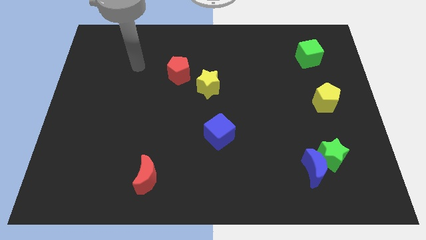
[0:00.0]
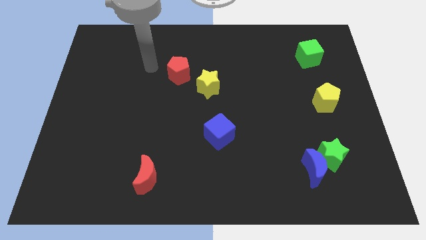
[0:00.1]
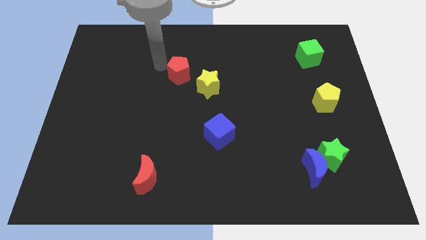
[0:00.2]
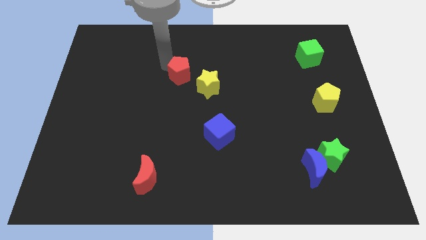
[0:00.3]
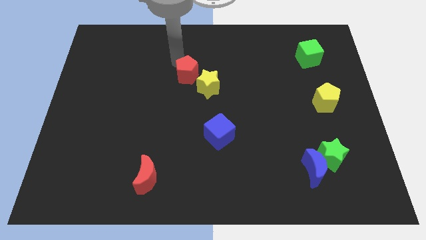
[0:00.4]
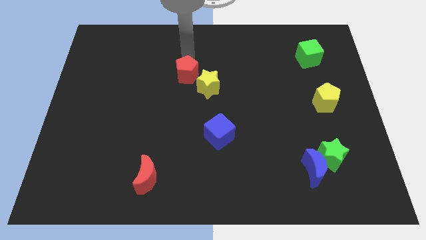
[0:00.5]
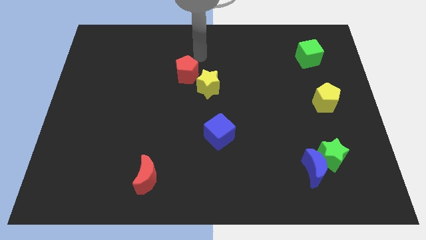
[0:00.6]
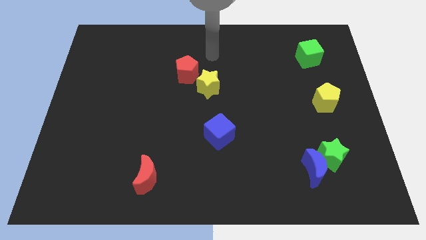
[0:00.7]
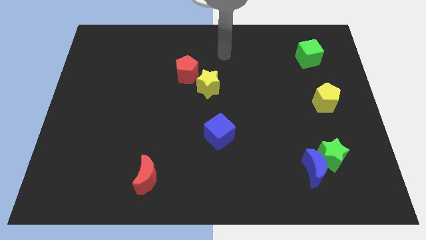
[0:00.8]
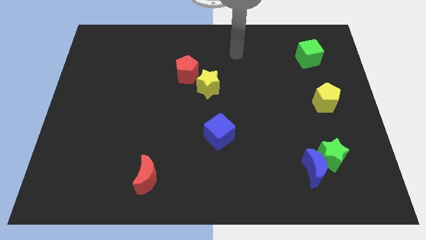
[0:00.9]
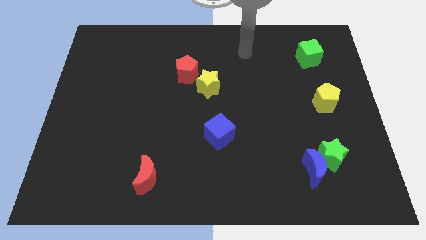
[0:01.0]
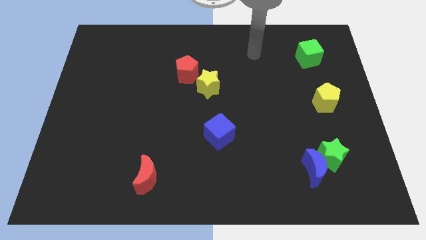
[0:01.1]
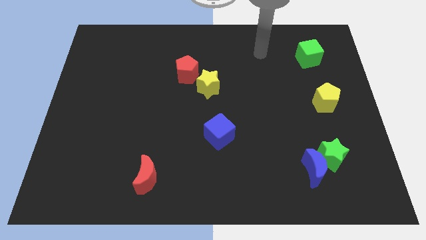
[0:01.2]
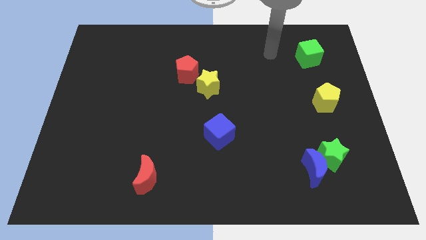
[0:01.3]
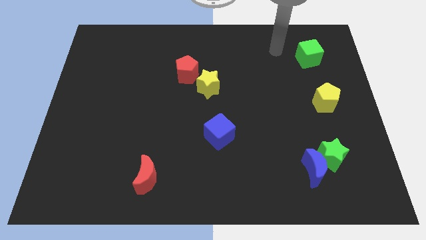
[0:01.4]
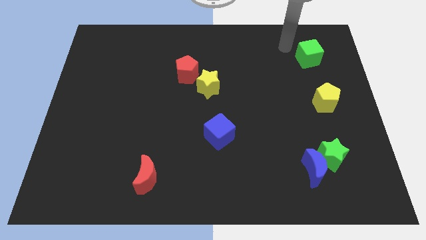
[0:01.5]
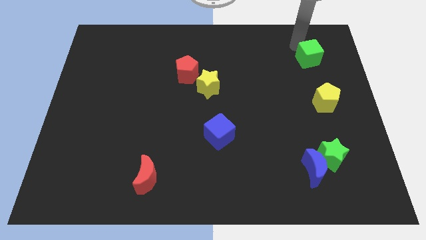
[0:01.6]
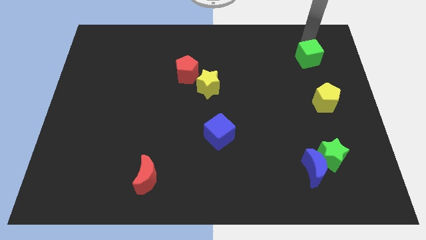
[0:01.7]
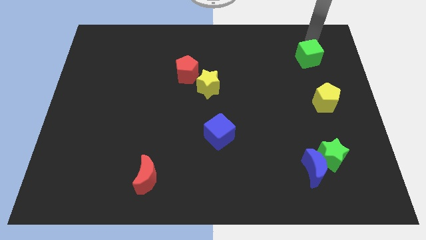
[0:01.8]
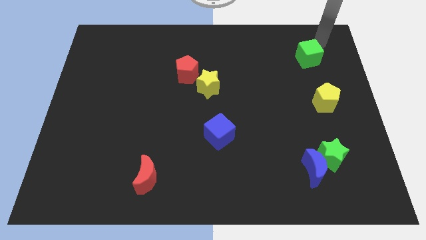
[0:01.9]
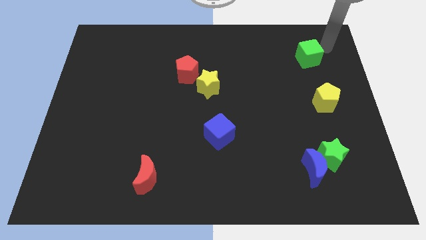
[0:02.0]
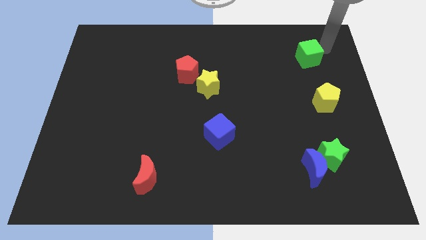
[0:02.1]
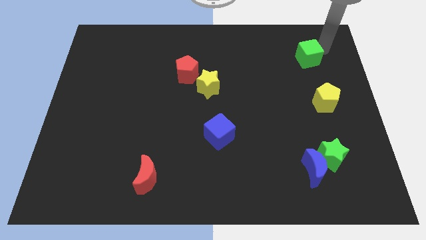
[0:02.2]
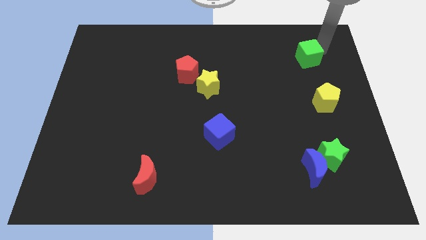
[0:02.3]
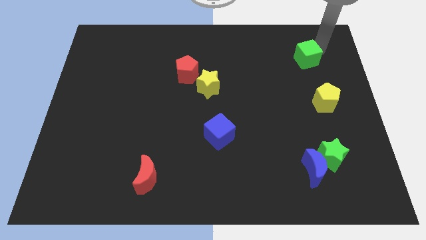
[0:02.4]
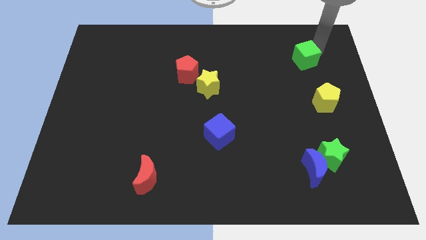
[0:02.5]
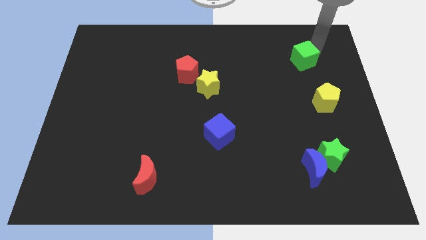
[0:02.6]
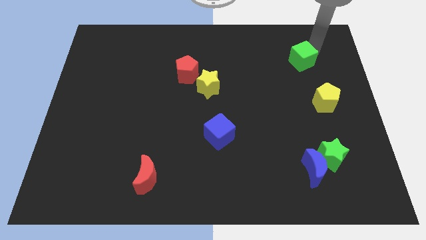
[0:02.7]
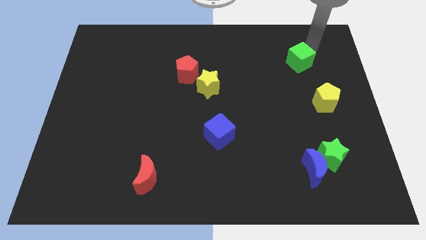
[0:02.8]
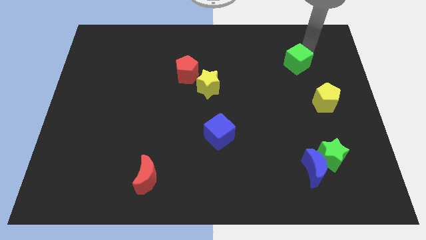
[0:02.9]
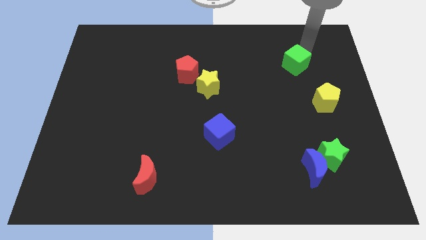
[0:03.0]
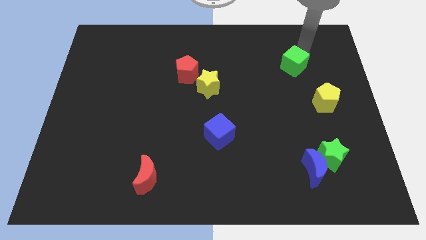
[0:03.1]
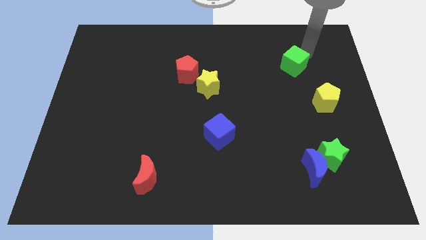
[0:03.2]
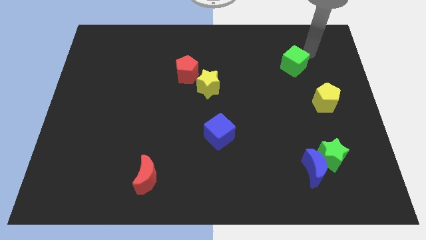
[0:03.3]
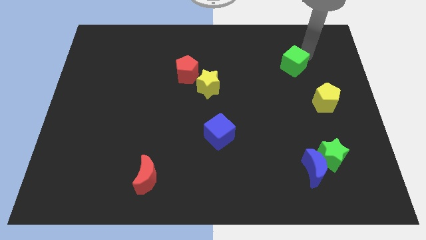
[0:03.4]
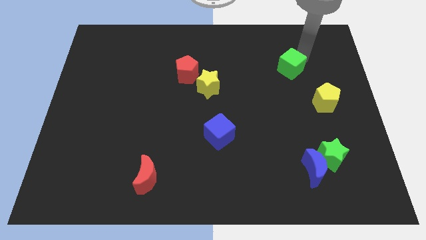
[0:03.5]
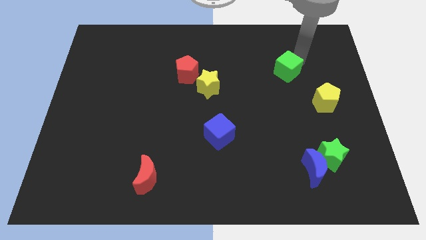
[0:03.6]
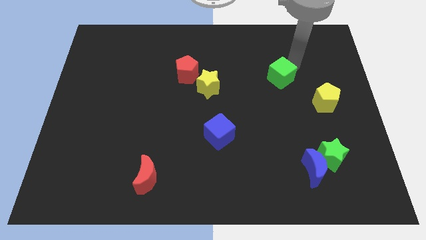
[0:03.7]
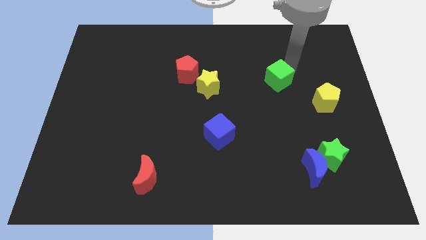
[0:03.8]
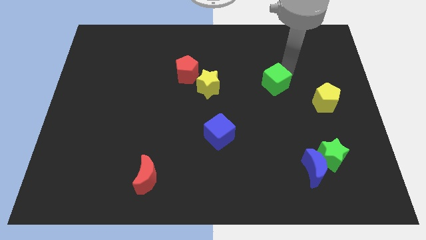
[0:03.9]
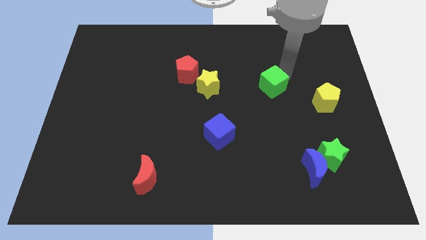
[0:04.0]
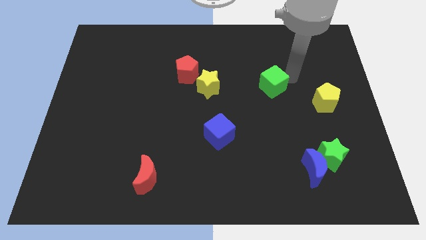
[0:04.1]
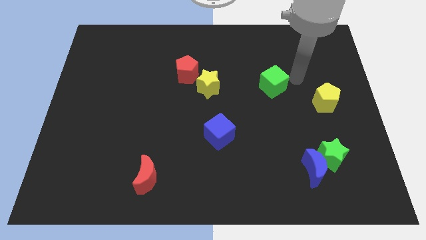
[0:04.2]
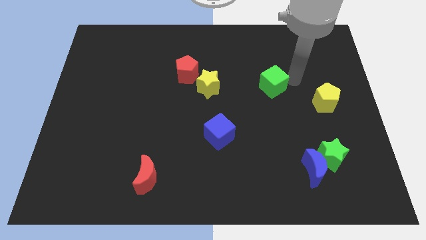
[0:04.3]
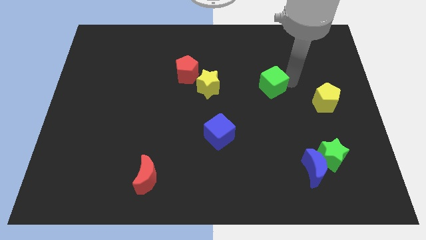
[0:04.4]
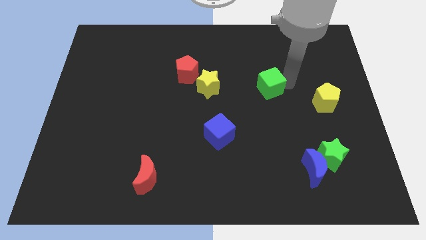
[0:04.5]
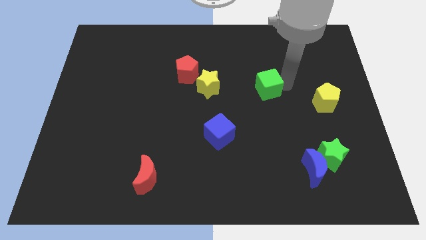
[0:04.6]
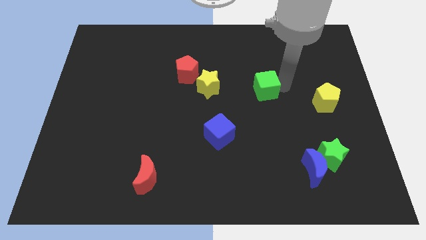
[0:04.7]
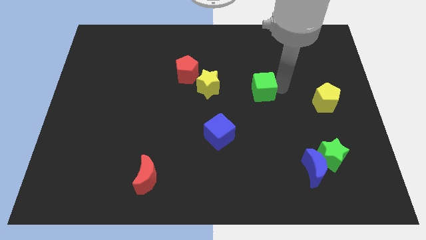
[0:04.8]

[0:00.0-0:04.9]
slide the green cube to the middle

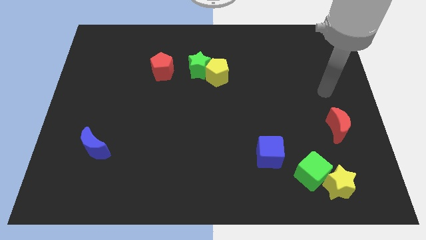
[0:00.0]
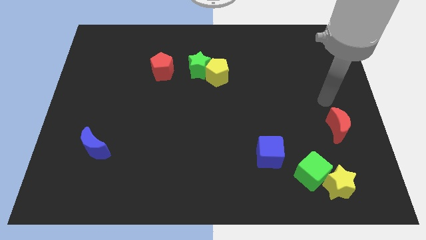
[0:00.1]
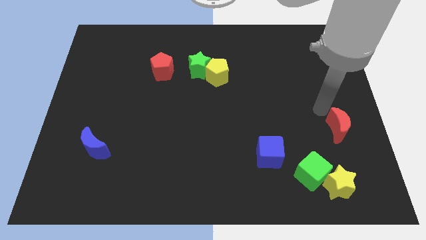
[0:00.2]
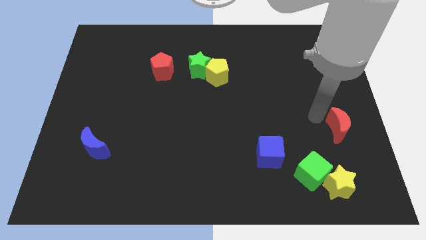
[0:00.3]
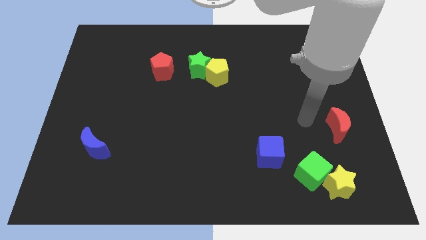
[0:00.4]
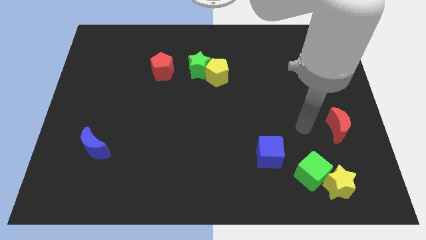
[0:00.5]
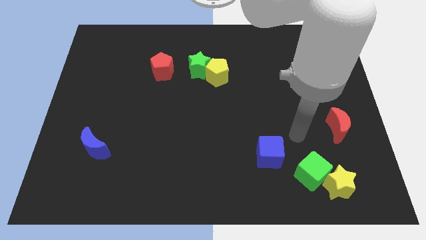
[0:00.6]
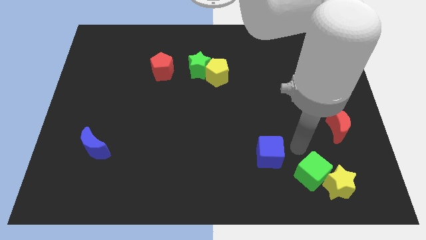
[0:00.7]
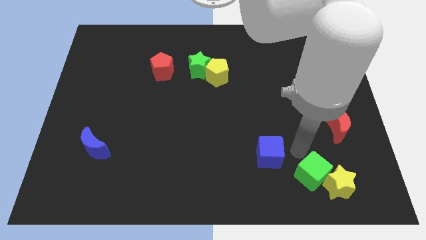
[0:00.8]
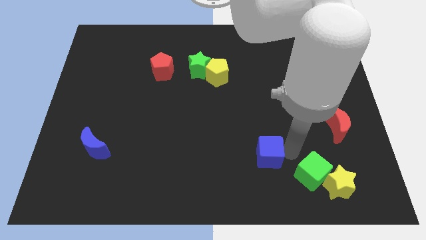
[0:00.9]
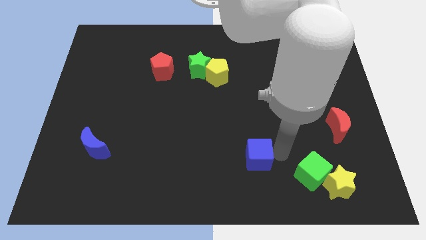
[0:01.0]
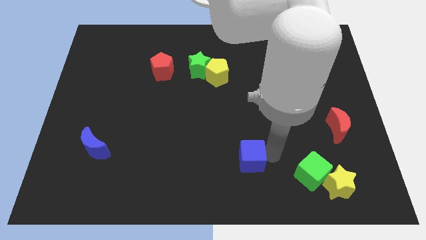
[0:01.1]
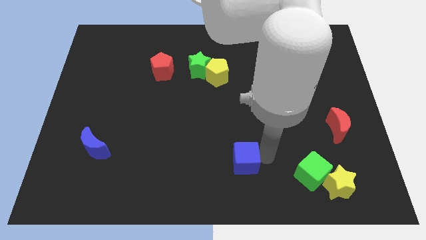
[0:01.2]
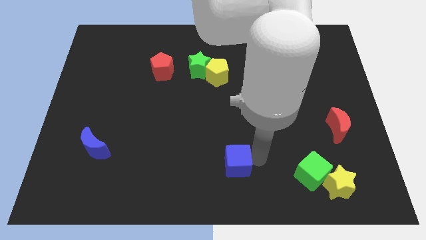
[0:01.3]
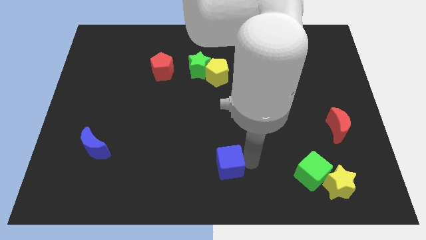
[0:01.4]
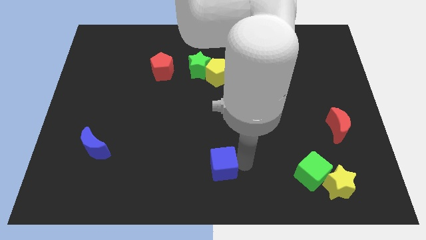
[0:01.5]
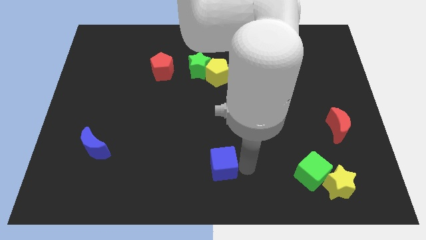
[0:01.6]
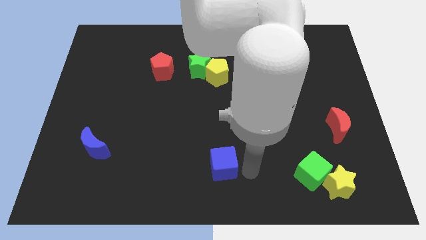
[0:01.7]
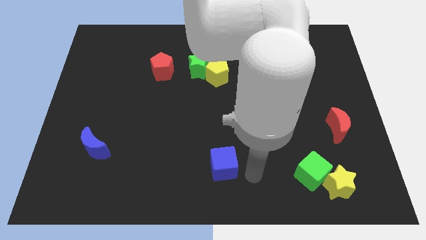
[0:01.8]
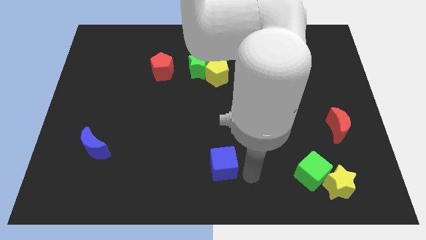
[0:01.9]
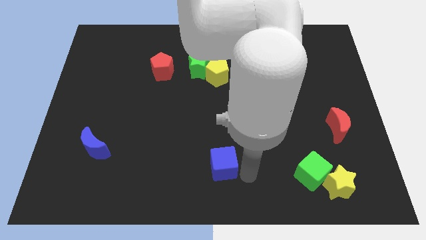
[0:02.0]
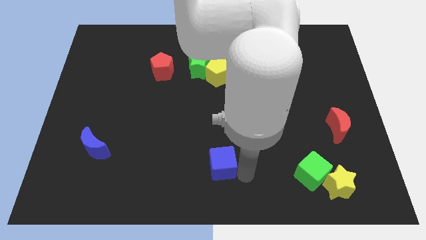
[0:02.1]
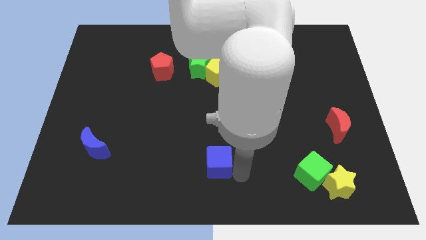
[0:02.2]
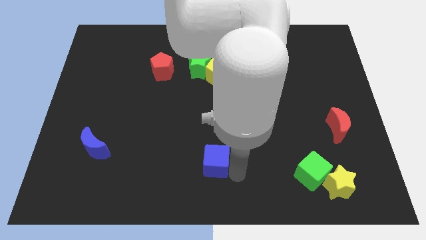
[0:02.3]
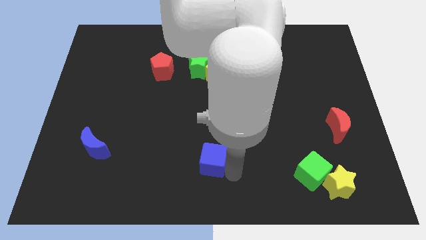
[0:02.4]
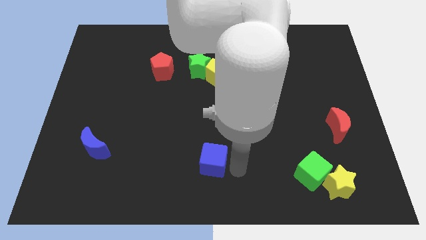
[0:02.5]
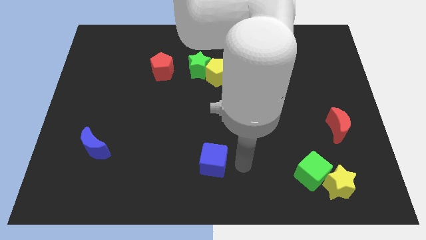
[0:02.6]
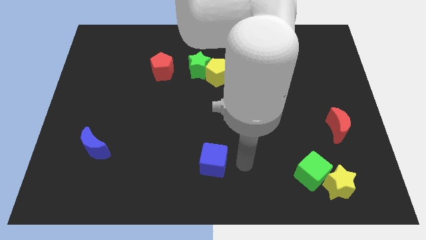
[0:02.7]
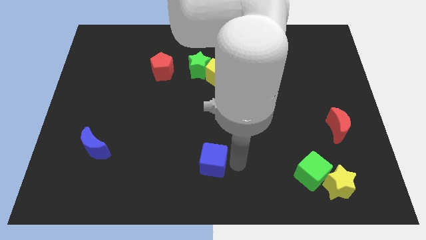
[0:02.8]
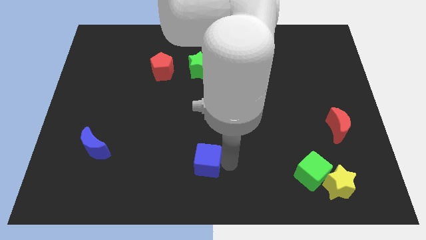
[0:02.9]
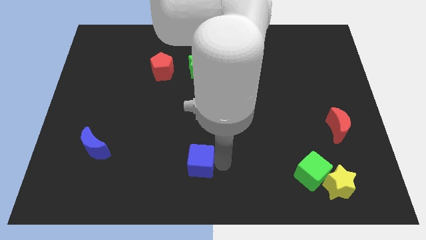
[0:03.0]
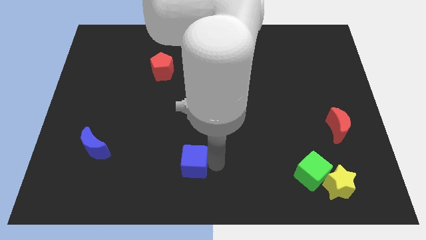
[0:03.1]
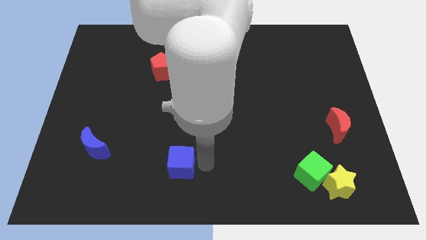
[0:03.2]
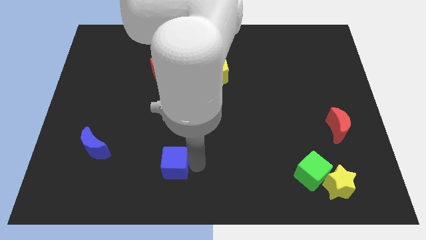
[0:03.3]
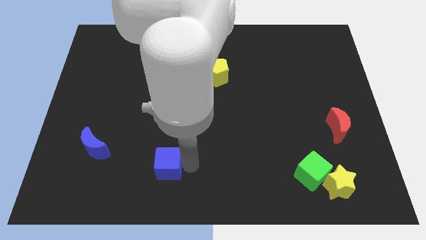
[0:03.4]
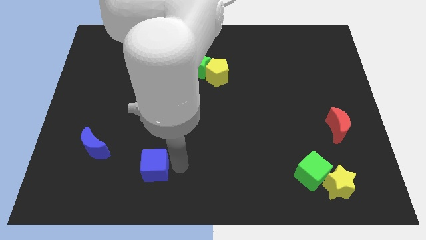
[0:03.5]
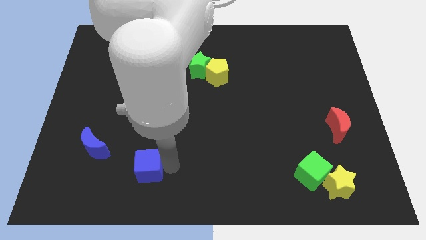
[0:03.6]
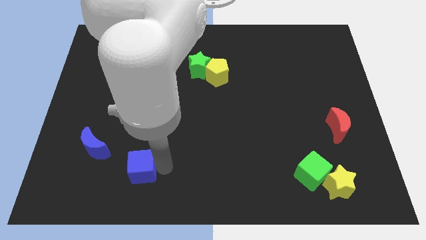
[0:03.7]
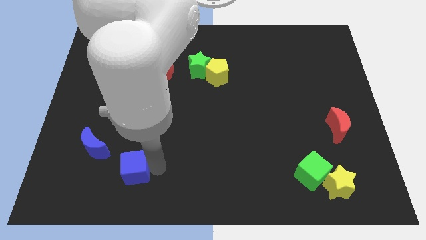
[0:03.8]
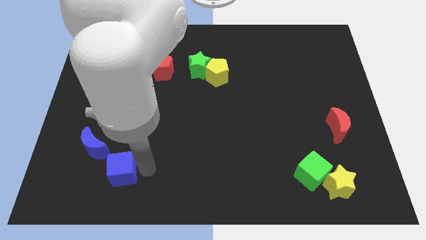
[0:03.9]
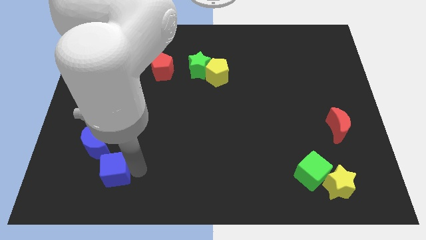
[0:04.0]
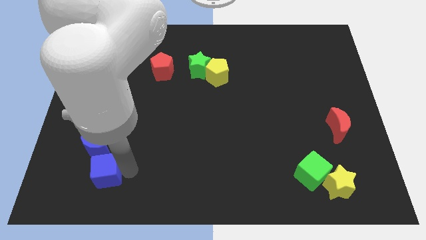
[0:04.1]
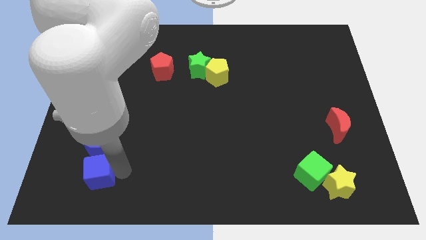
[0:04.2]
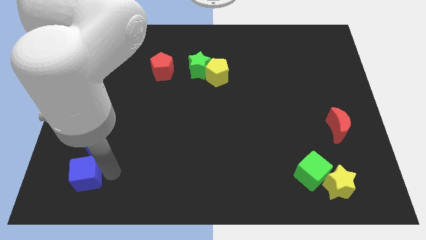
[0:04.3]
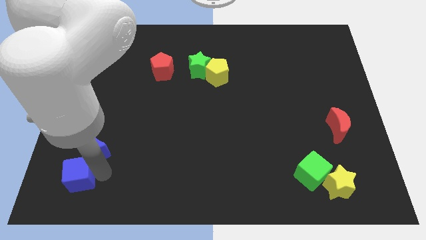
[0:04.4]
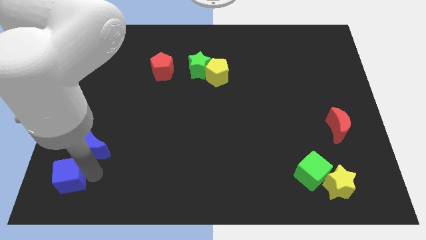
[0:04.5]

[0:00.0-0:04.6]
push the blue cube to the bottom left corner
